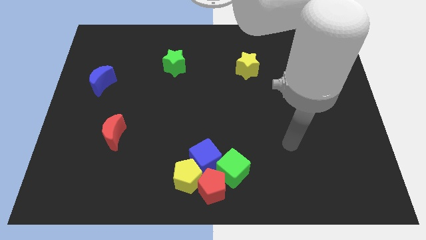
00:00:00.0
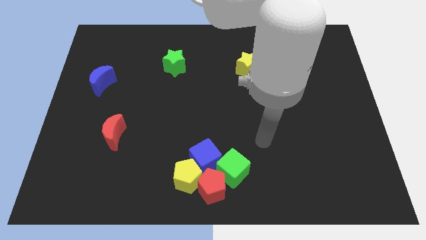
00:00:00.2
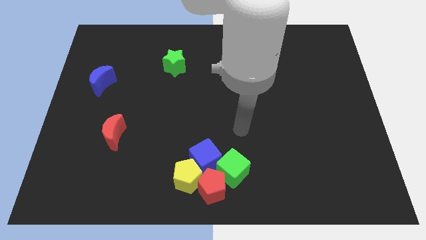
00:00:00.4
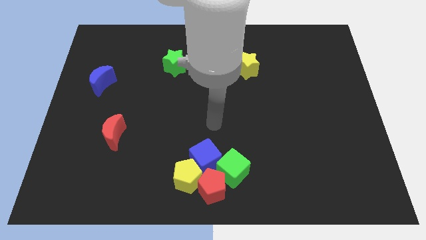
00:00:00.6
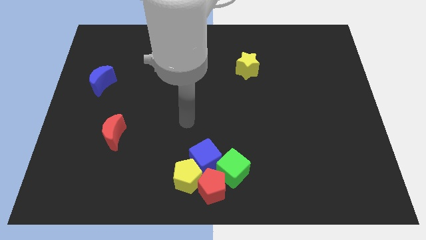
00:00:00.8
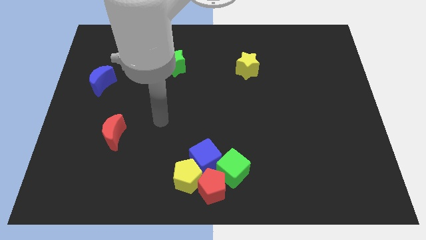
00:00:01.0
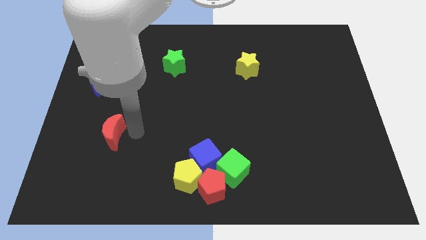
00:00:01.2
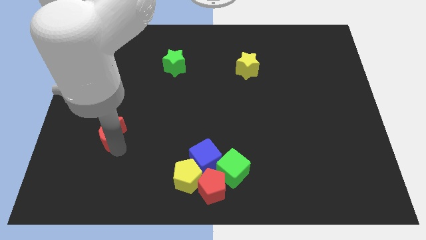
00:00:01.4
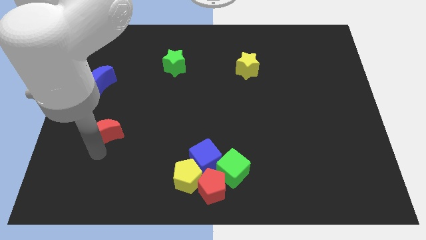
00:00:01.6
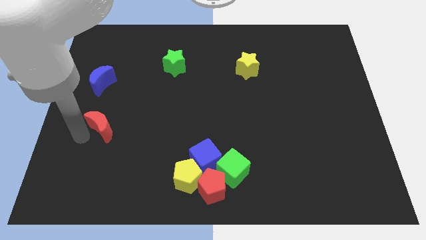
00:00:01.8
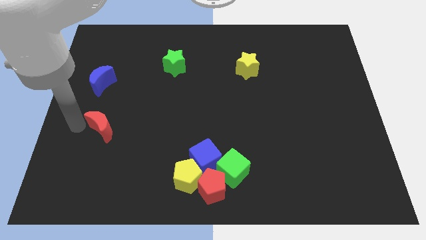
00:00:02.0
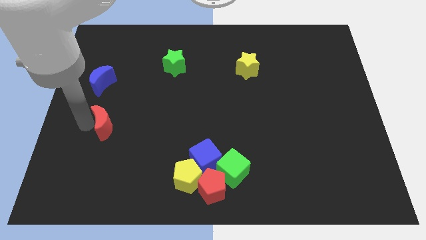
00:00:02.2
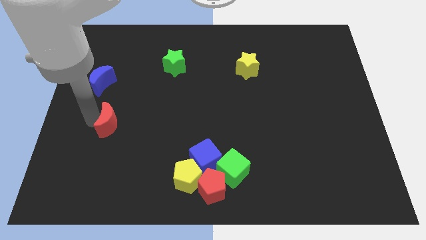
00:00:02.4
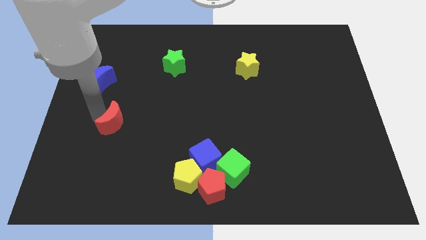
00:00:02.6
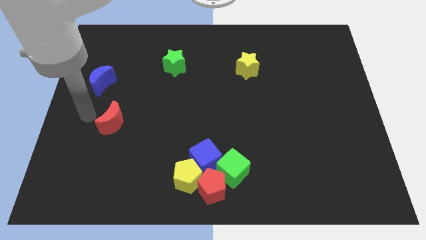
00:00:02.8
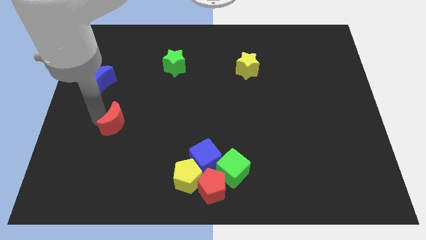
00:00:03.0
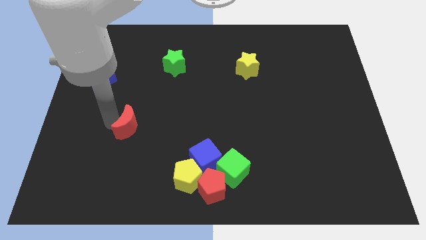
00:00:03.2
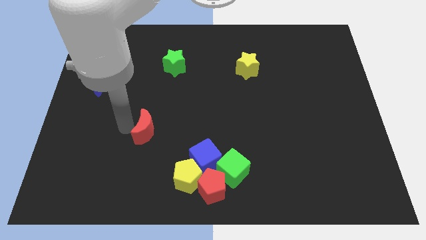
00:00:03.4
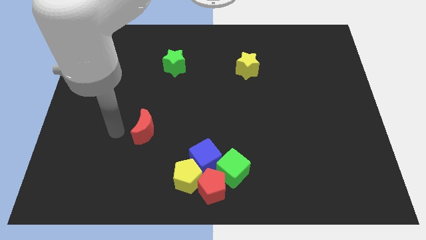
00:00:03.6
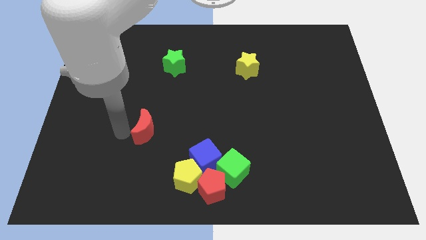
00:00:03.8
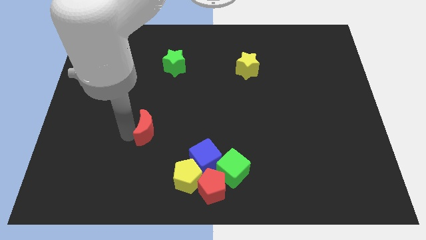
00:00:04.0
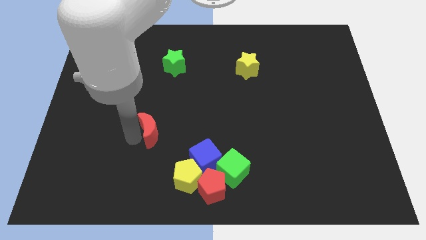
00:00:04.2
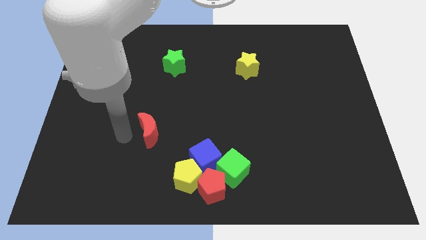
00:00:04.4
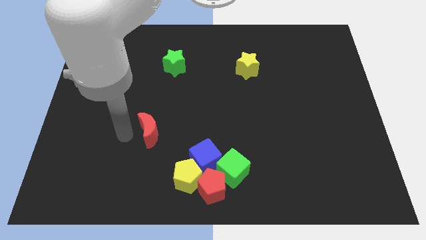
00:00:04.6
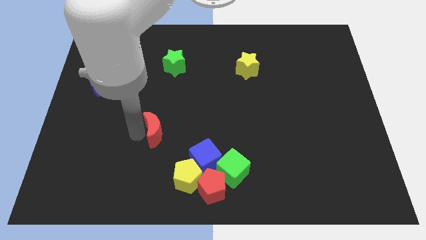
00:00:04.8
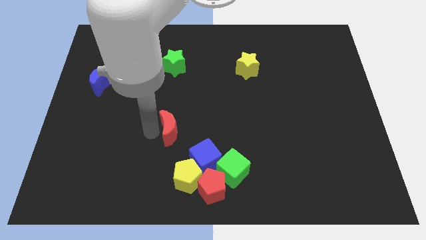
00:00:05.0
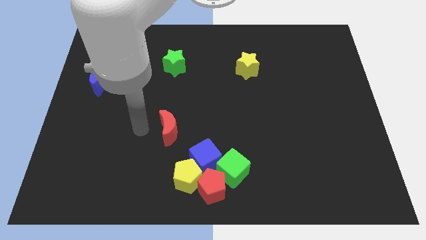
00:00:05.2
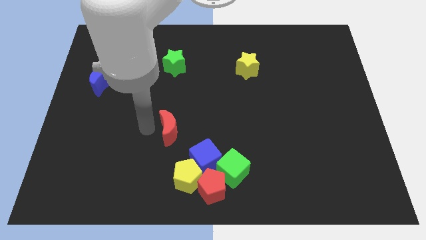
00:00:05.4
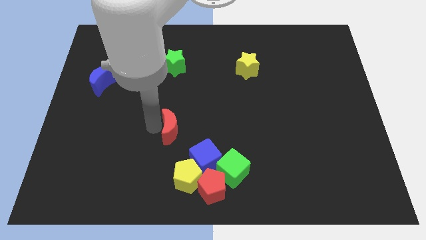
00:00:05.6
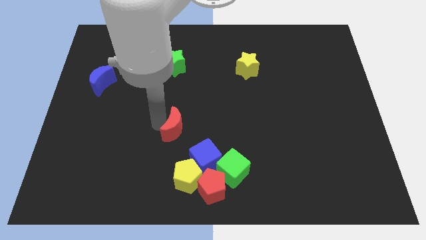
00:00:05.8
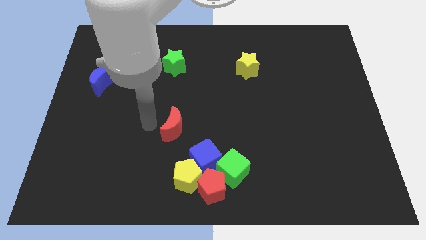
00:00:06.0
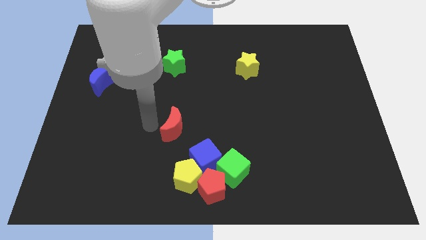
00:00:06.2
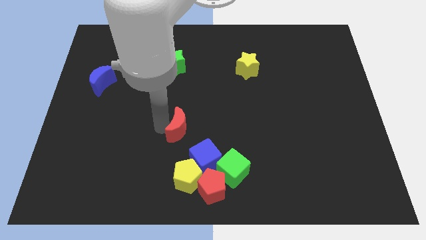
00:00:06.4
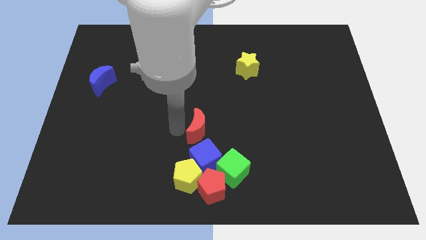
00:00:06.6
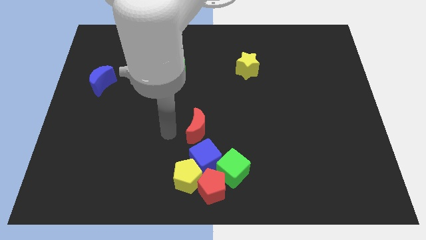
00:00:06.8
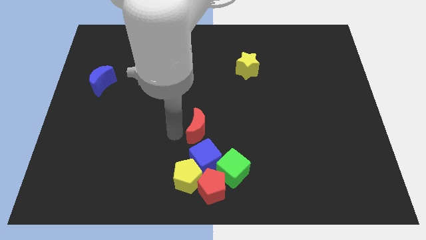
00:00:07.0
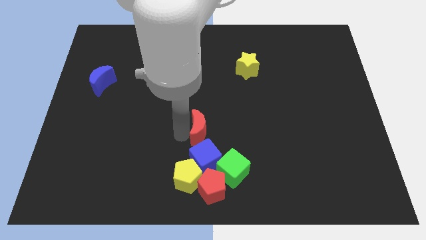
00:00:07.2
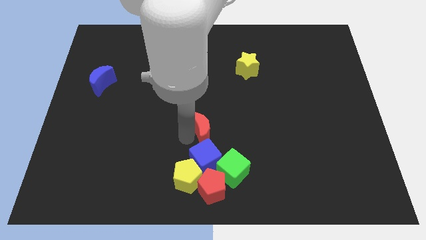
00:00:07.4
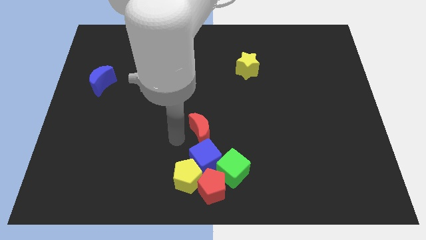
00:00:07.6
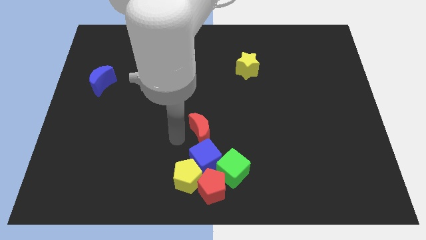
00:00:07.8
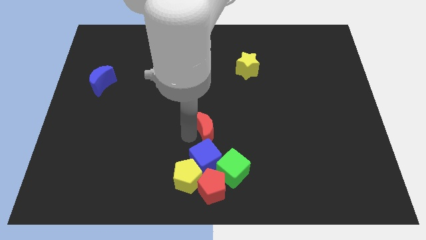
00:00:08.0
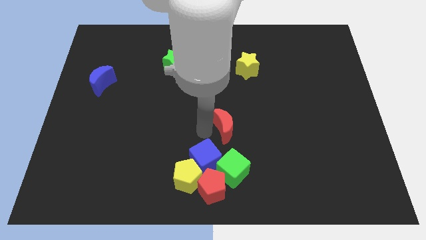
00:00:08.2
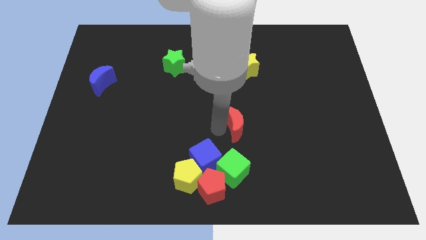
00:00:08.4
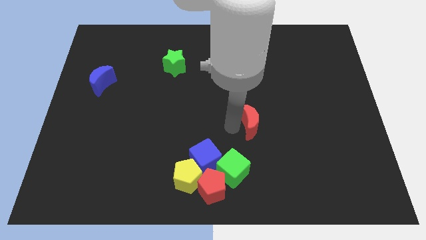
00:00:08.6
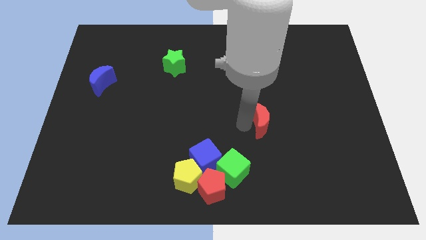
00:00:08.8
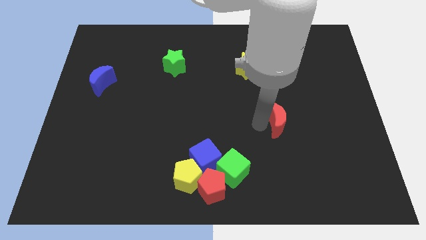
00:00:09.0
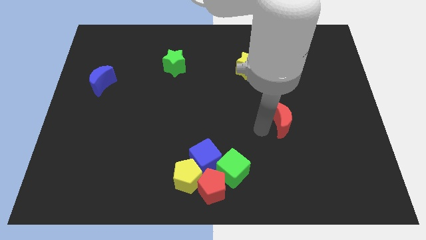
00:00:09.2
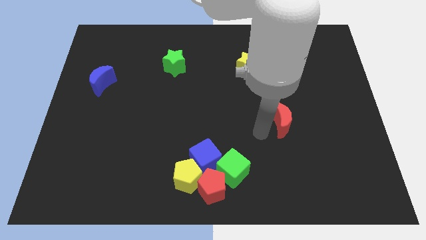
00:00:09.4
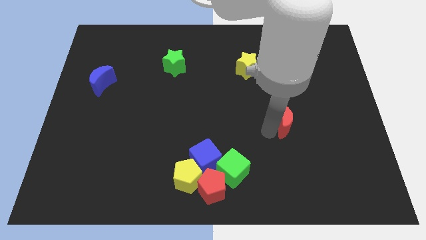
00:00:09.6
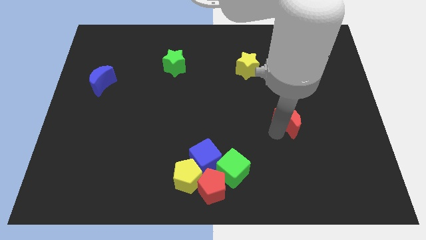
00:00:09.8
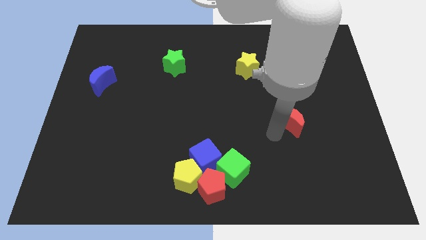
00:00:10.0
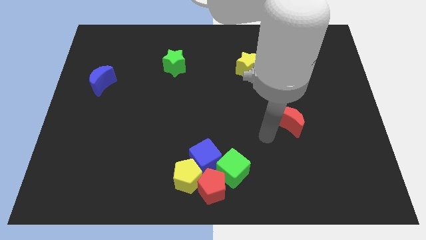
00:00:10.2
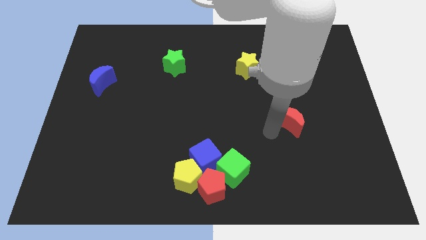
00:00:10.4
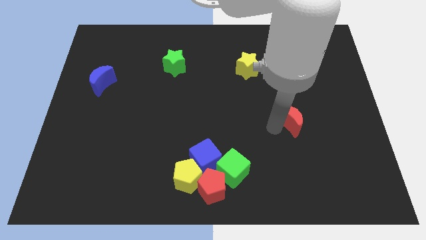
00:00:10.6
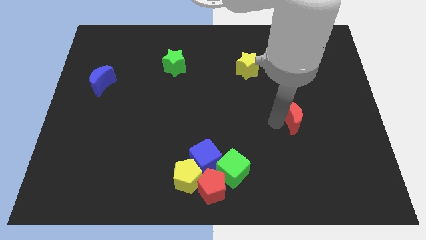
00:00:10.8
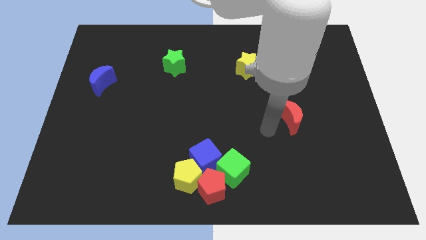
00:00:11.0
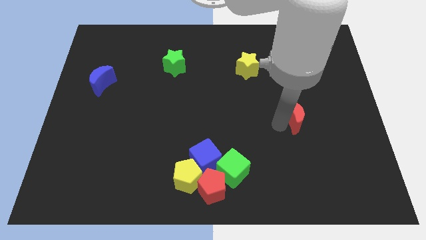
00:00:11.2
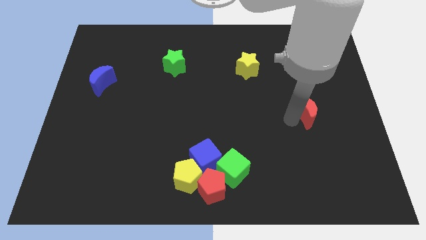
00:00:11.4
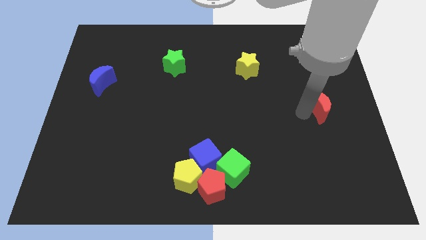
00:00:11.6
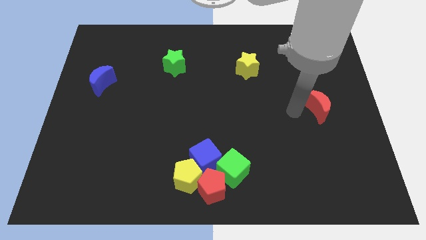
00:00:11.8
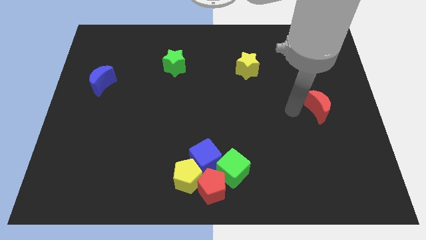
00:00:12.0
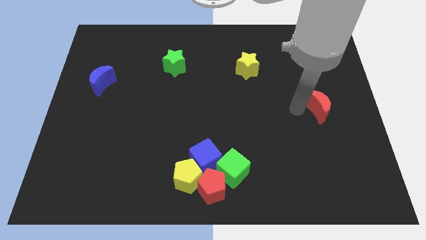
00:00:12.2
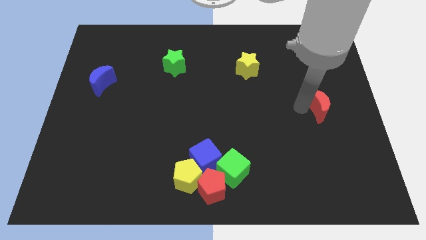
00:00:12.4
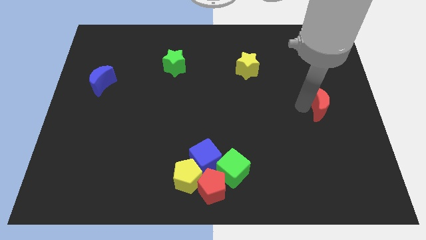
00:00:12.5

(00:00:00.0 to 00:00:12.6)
put the red moon to the center right
